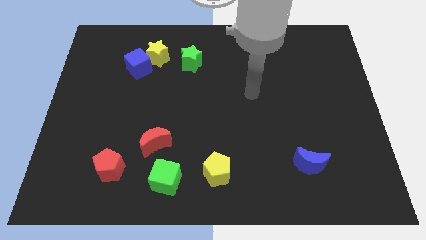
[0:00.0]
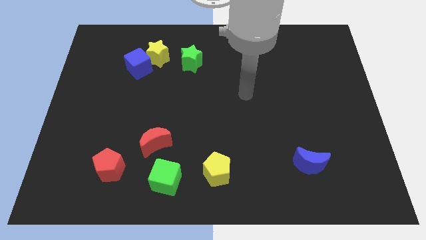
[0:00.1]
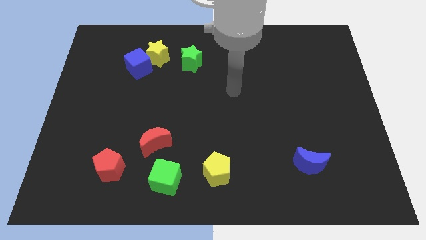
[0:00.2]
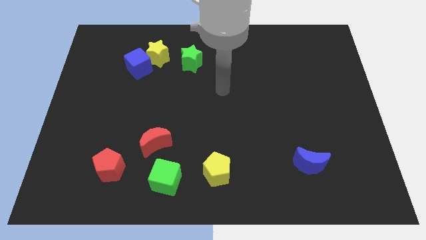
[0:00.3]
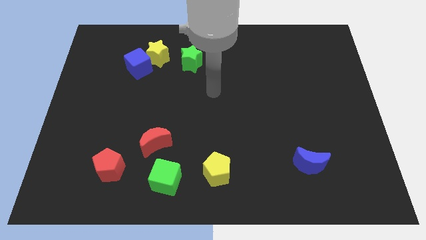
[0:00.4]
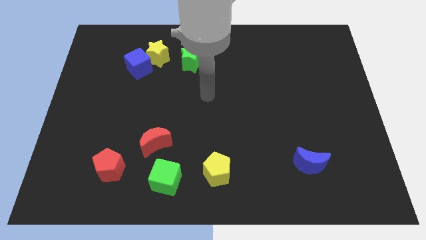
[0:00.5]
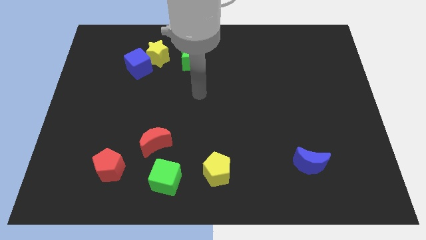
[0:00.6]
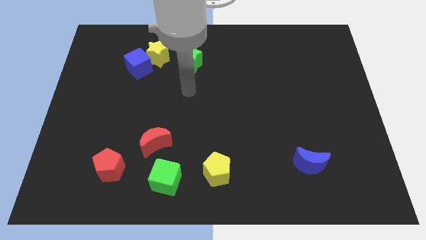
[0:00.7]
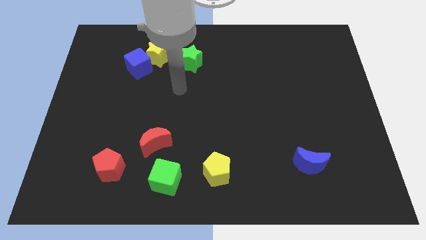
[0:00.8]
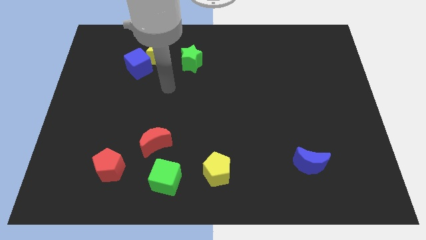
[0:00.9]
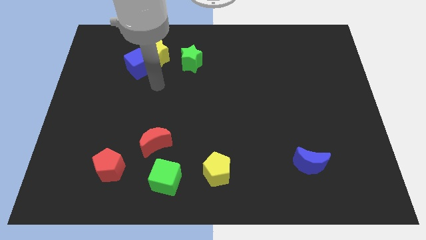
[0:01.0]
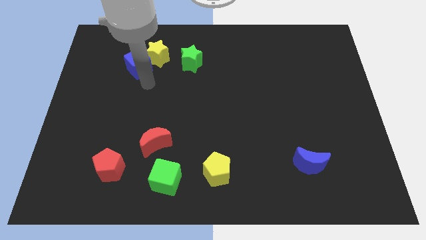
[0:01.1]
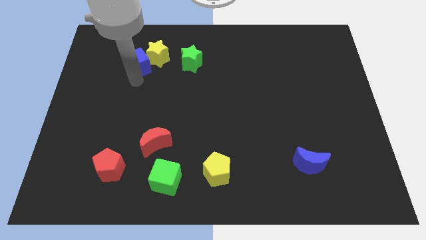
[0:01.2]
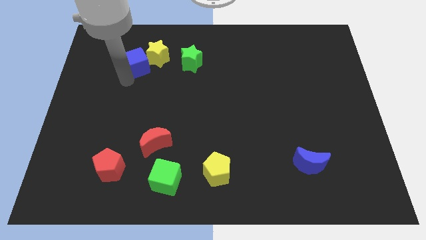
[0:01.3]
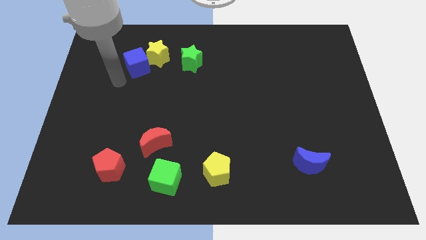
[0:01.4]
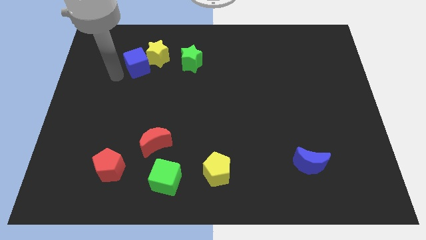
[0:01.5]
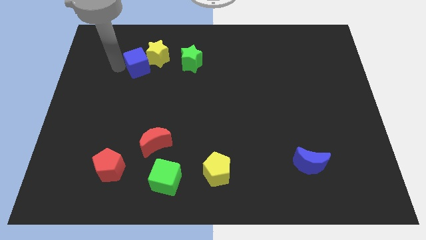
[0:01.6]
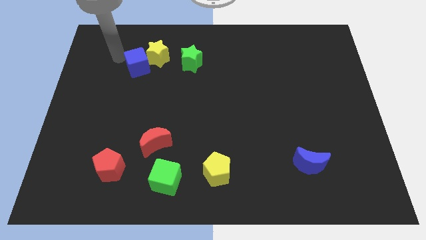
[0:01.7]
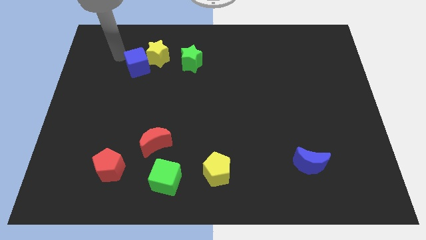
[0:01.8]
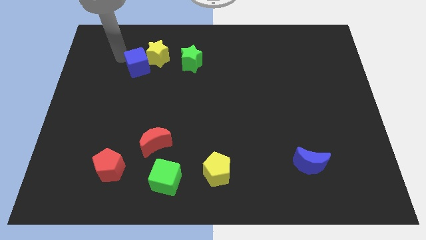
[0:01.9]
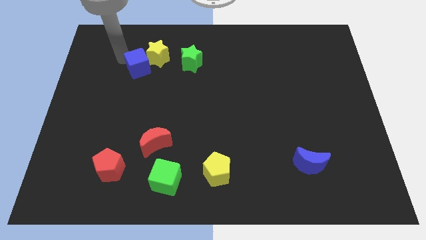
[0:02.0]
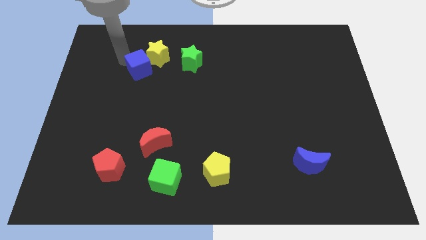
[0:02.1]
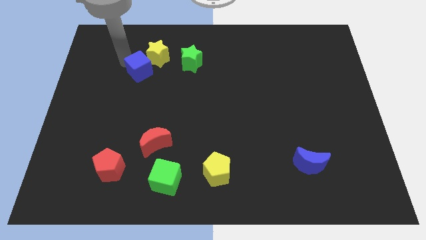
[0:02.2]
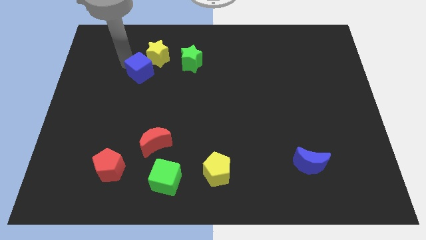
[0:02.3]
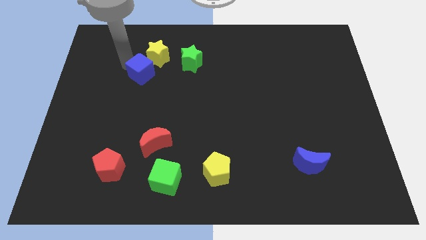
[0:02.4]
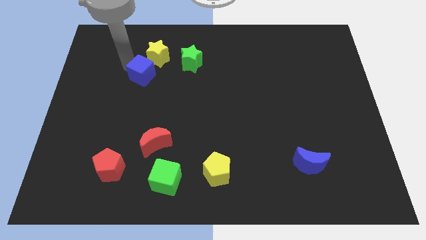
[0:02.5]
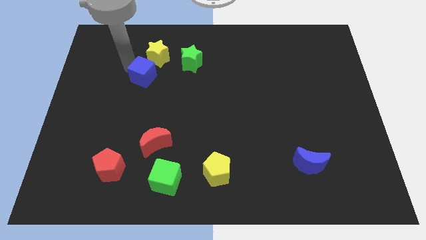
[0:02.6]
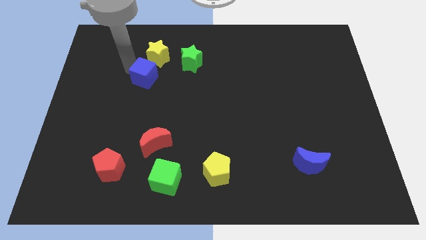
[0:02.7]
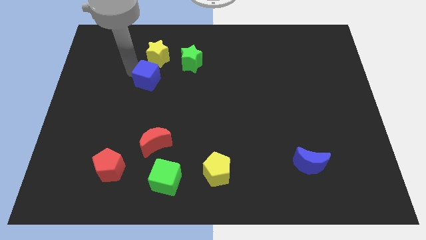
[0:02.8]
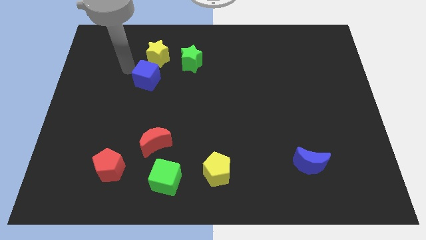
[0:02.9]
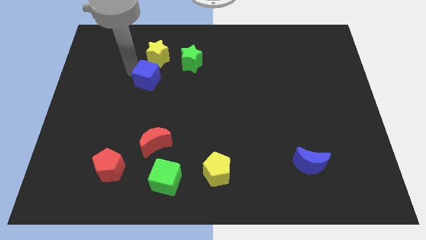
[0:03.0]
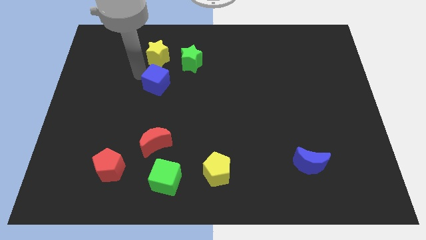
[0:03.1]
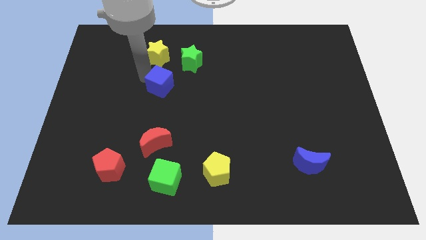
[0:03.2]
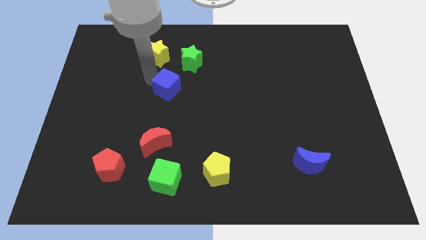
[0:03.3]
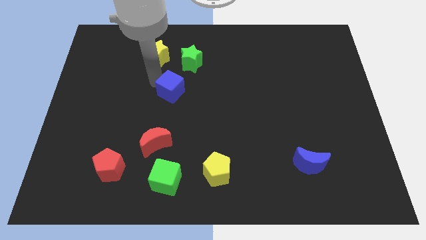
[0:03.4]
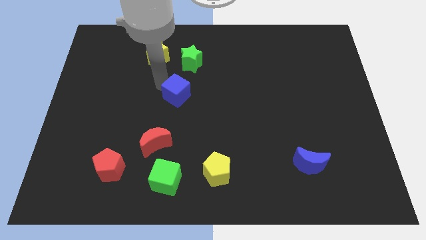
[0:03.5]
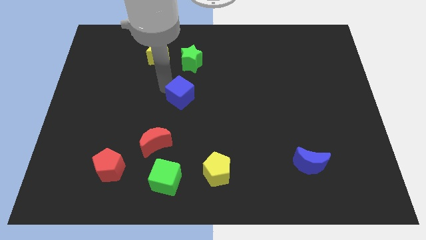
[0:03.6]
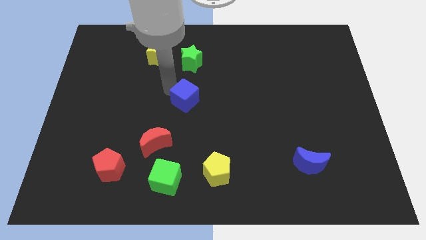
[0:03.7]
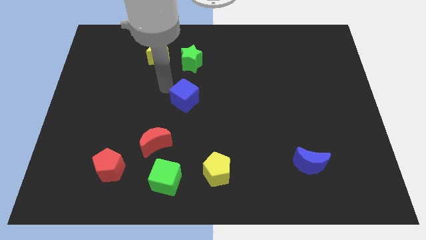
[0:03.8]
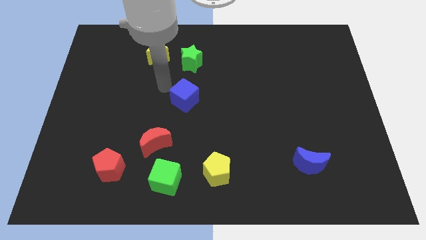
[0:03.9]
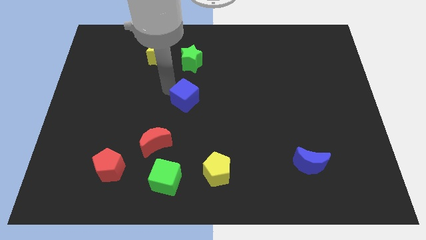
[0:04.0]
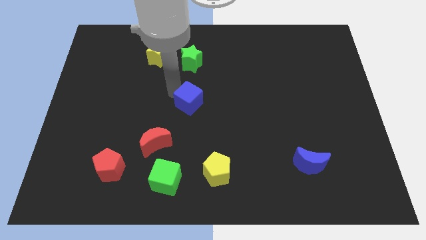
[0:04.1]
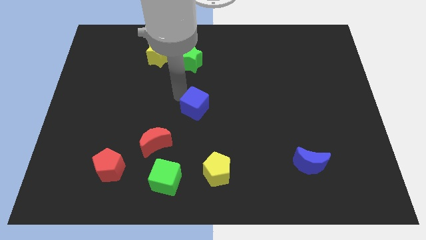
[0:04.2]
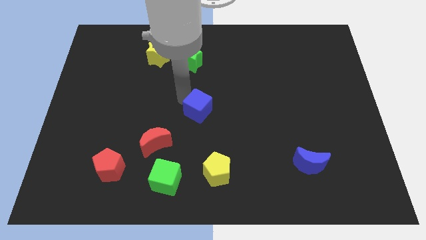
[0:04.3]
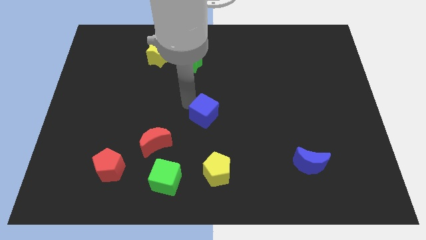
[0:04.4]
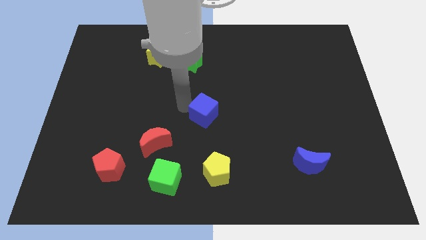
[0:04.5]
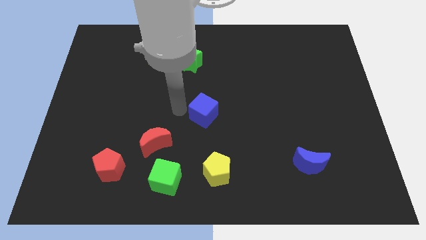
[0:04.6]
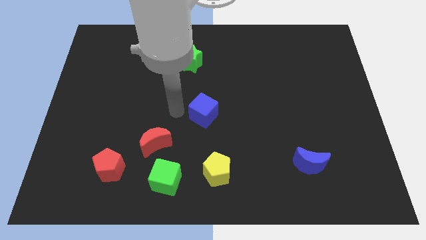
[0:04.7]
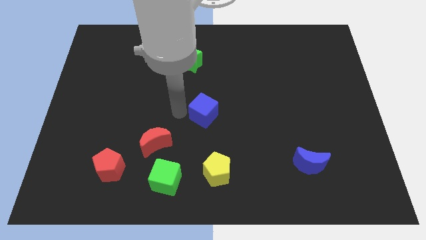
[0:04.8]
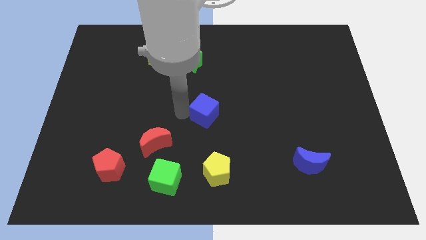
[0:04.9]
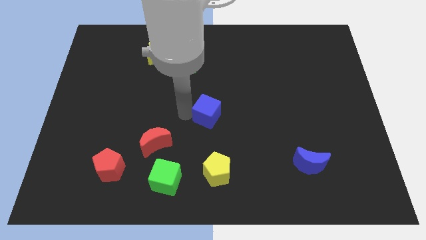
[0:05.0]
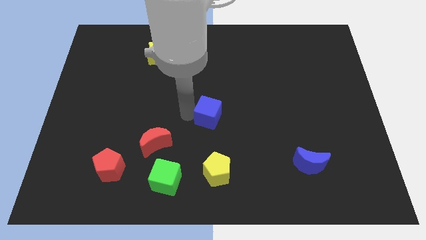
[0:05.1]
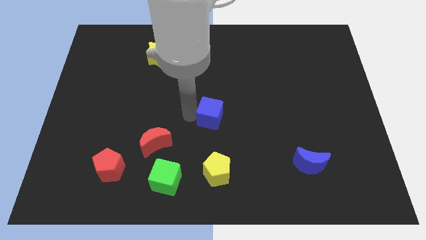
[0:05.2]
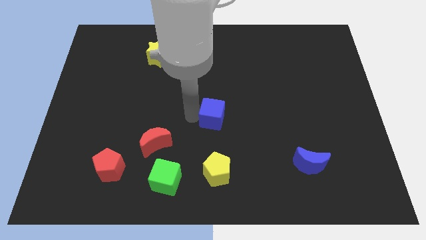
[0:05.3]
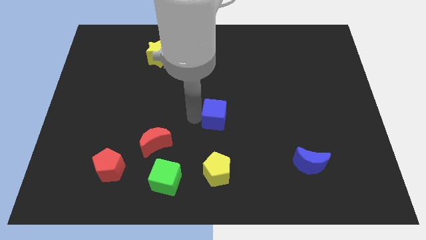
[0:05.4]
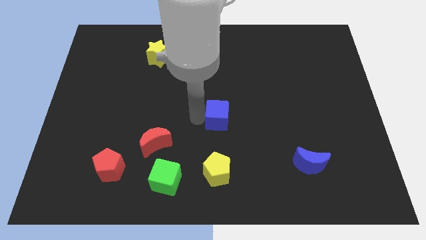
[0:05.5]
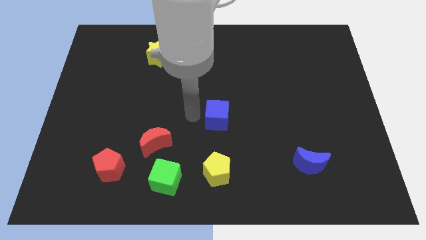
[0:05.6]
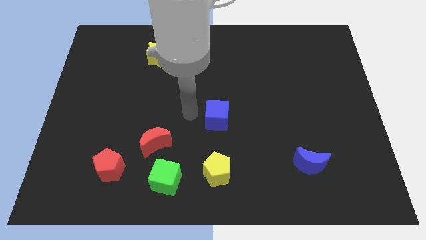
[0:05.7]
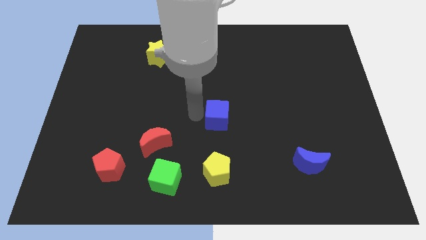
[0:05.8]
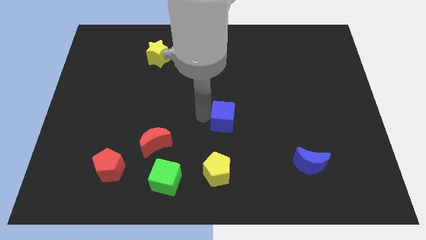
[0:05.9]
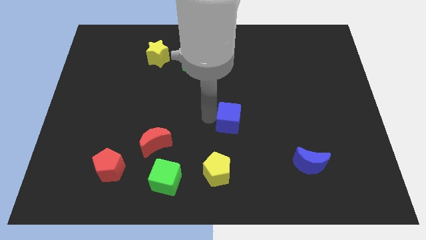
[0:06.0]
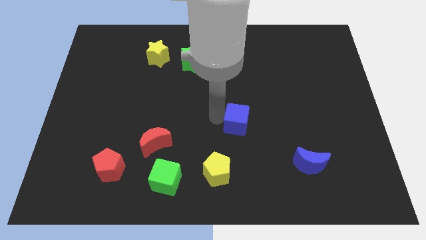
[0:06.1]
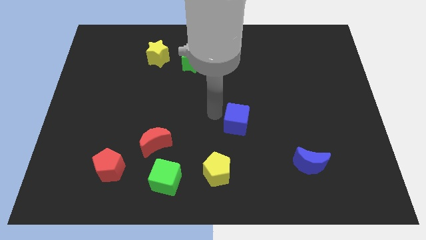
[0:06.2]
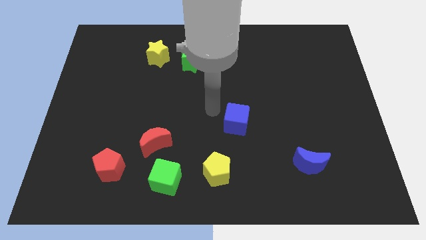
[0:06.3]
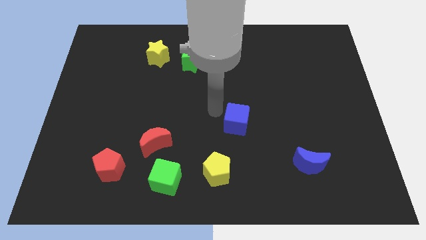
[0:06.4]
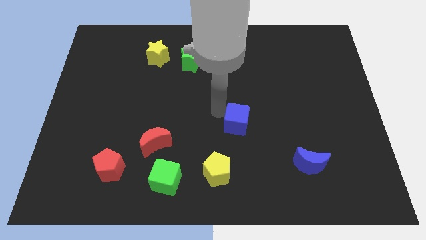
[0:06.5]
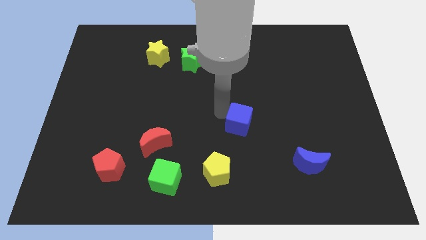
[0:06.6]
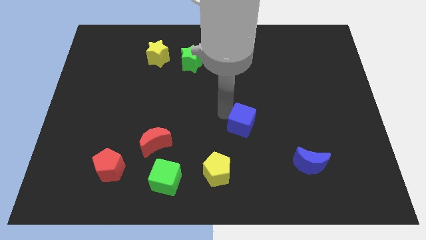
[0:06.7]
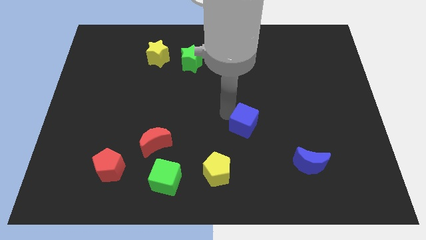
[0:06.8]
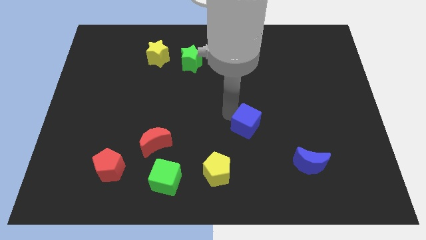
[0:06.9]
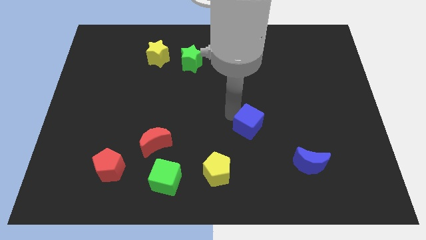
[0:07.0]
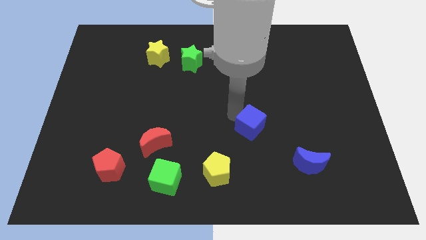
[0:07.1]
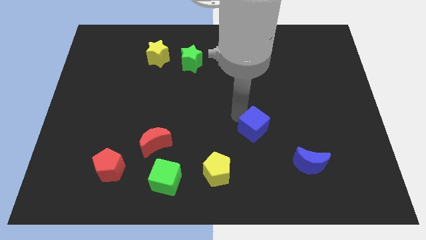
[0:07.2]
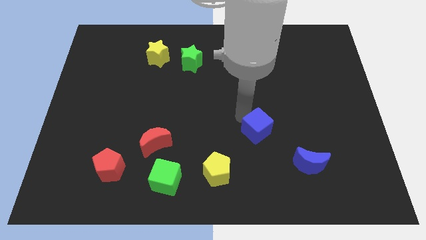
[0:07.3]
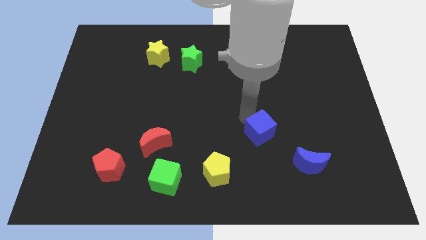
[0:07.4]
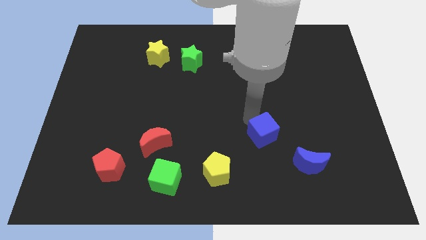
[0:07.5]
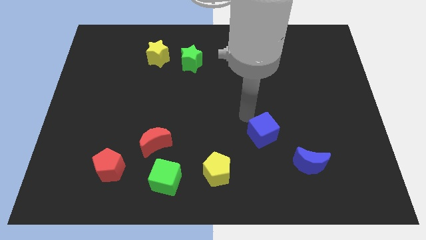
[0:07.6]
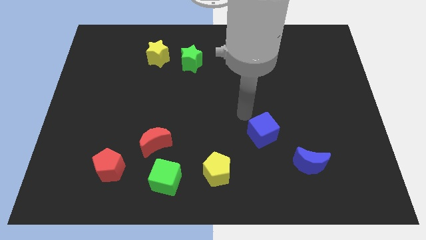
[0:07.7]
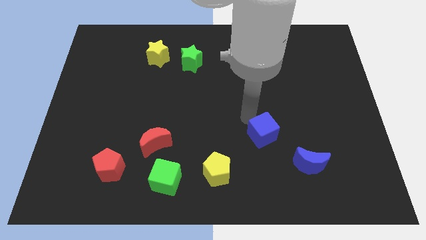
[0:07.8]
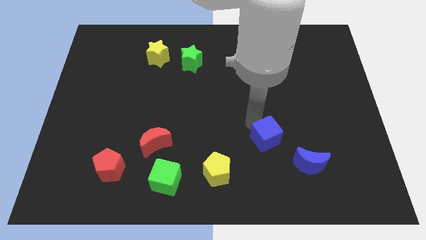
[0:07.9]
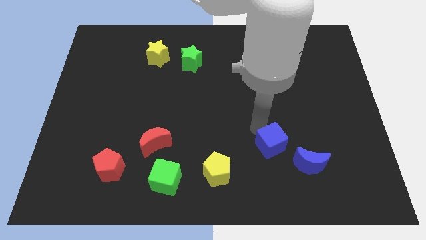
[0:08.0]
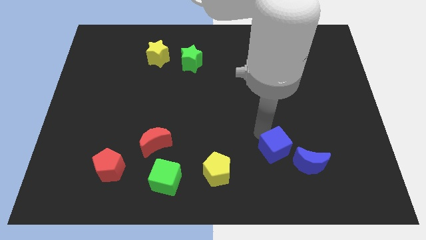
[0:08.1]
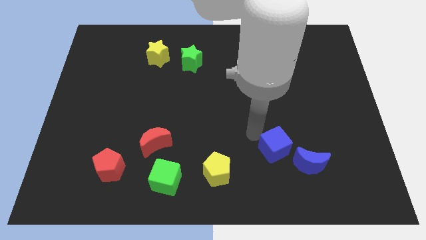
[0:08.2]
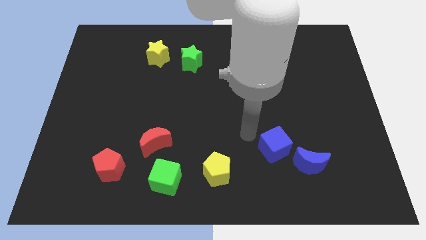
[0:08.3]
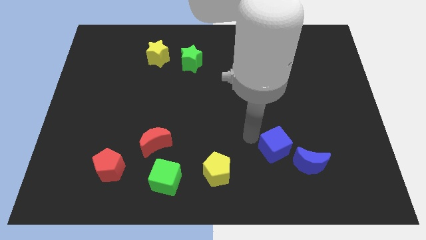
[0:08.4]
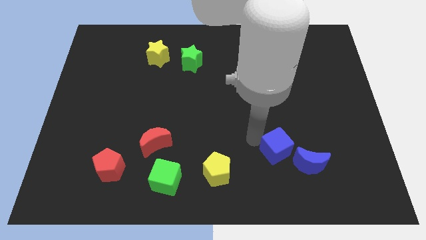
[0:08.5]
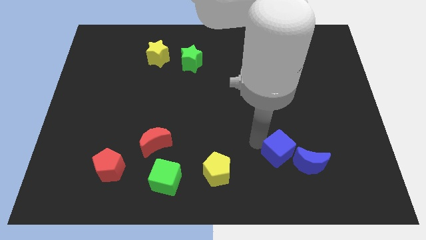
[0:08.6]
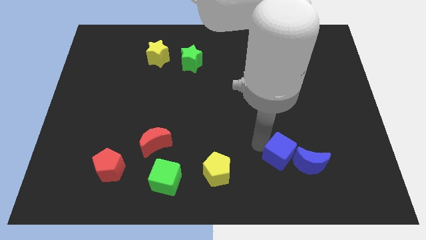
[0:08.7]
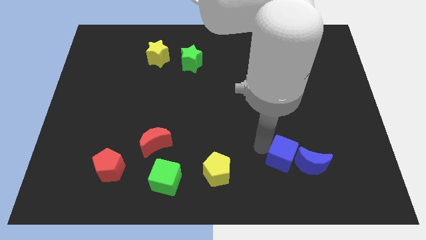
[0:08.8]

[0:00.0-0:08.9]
move the blue cube close to the blue moon
